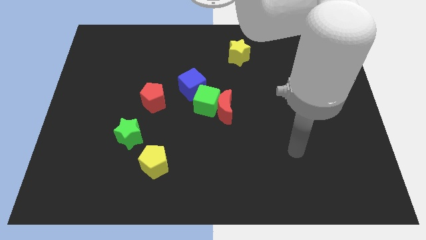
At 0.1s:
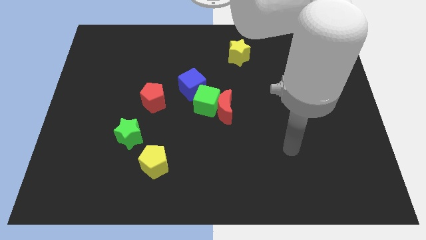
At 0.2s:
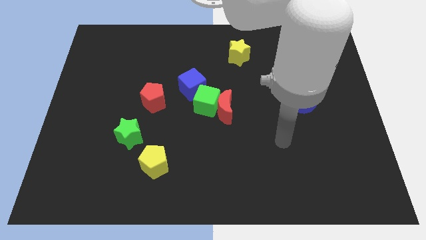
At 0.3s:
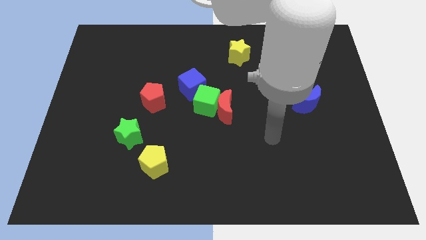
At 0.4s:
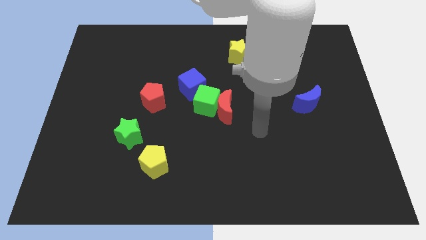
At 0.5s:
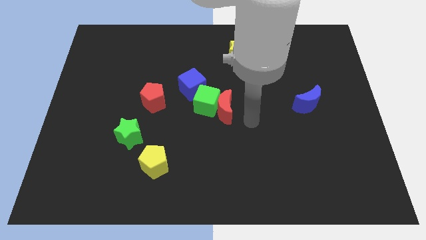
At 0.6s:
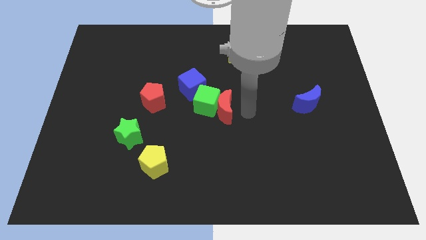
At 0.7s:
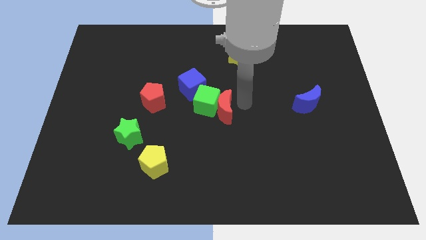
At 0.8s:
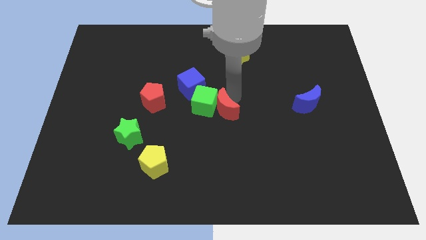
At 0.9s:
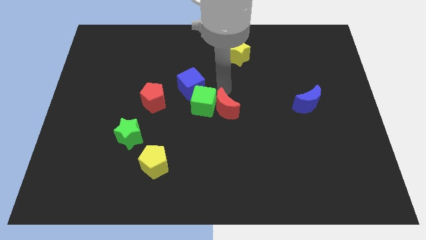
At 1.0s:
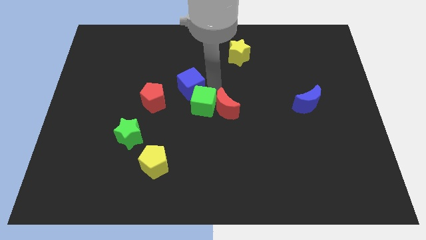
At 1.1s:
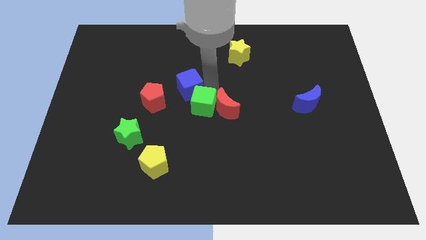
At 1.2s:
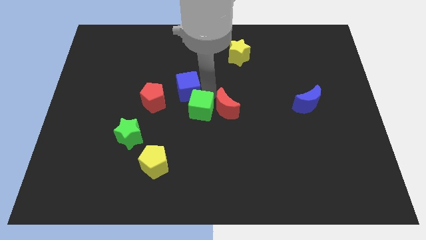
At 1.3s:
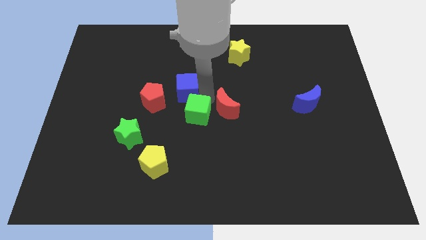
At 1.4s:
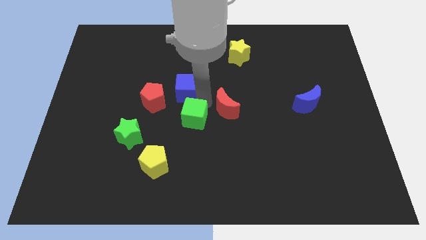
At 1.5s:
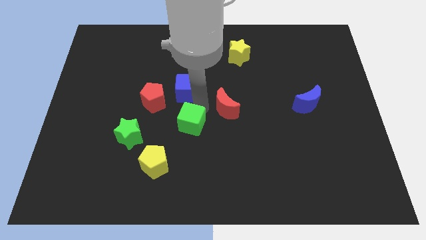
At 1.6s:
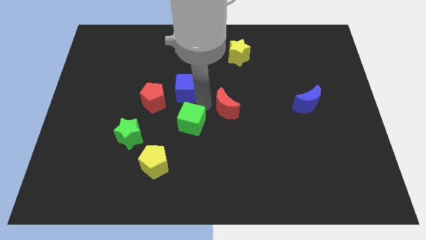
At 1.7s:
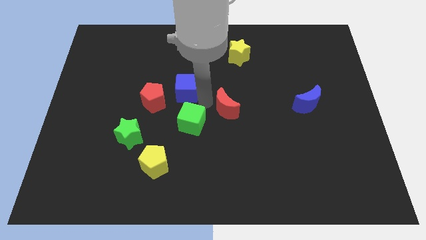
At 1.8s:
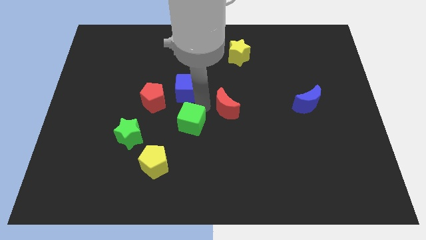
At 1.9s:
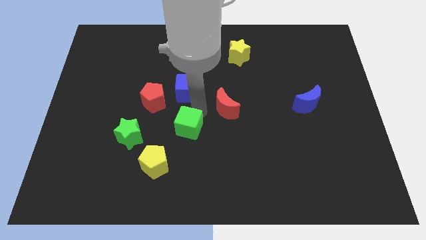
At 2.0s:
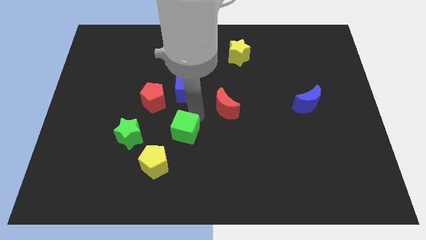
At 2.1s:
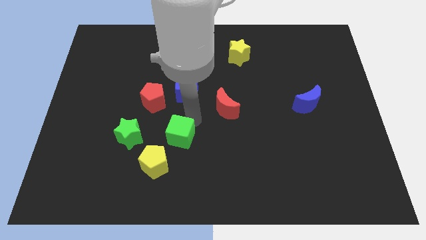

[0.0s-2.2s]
separate the green cube from the red moon and blue cube

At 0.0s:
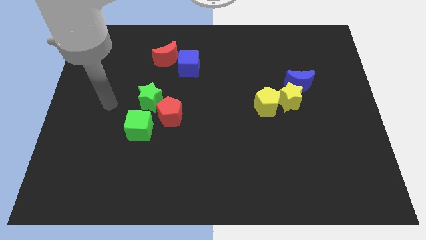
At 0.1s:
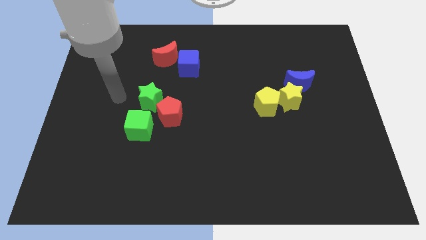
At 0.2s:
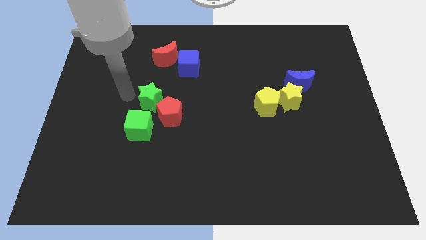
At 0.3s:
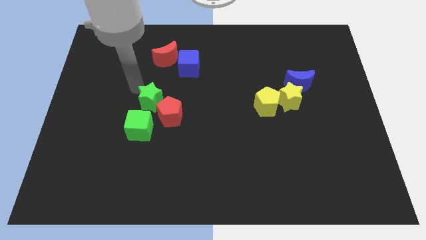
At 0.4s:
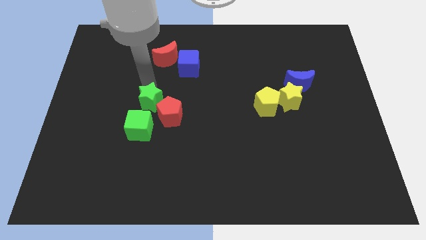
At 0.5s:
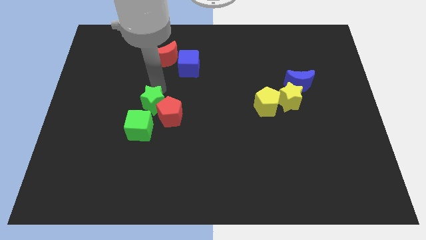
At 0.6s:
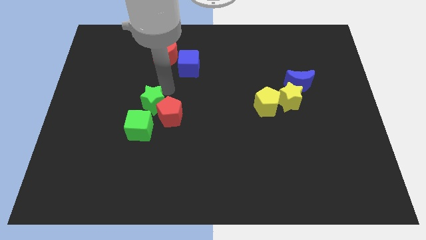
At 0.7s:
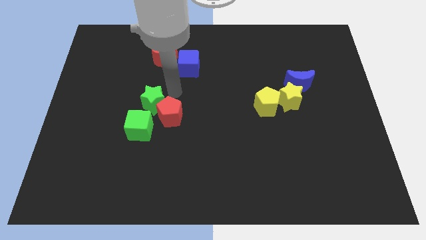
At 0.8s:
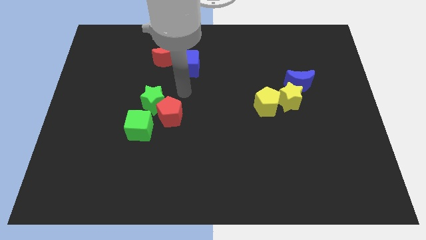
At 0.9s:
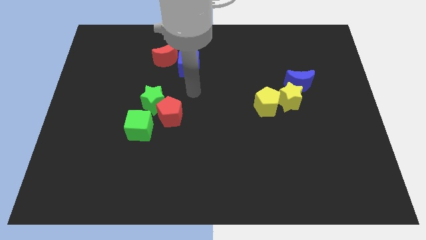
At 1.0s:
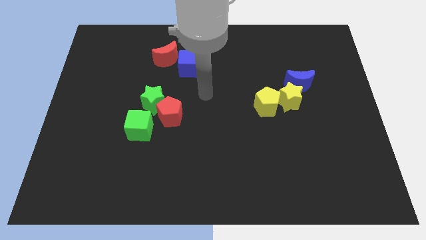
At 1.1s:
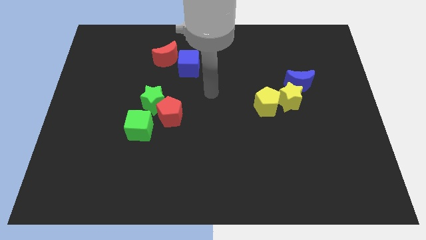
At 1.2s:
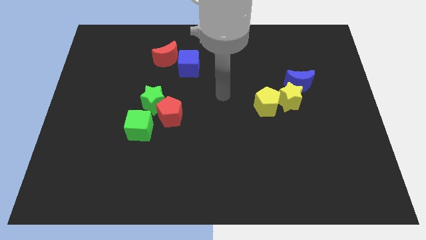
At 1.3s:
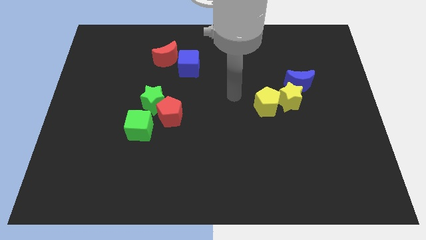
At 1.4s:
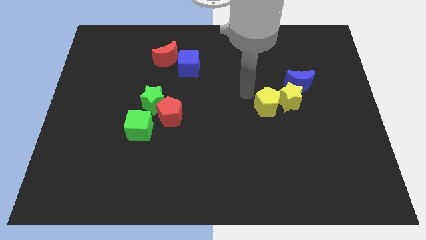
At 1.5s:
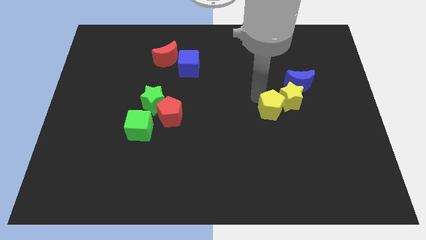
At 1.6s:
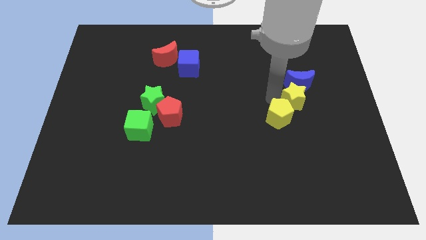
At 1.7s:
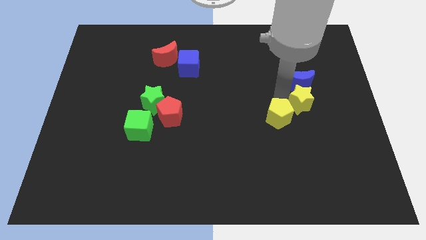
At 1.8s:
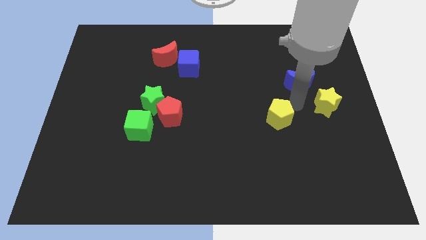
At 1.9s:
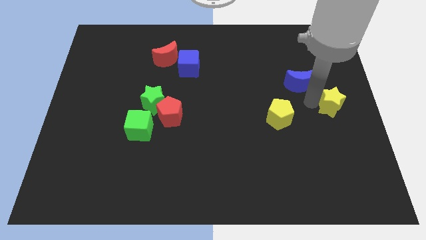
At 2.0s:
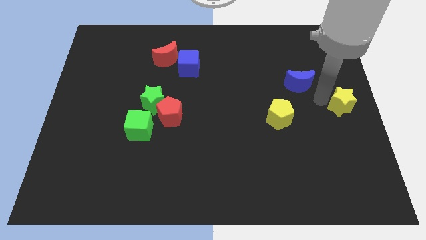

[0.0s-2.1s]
separate the blue moon from the yellow star

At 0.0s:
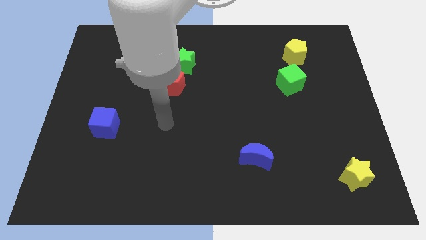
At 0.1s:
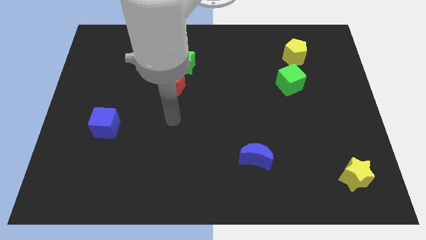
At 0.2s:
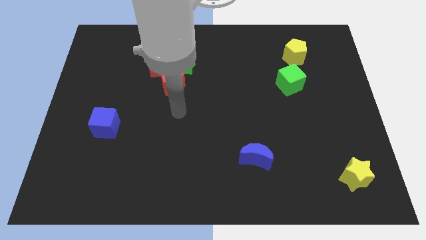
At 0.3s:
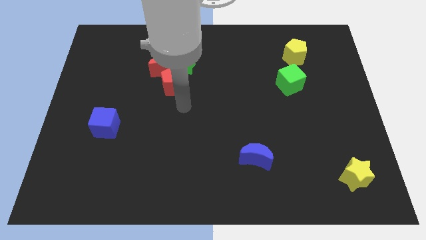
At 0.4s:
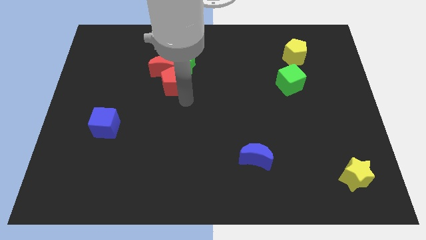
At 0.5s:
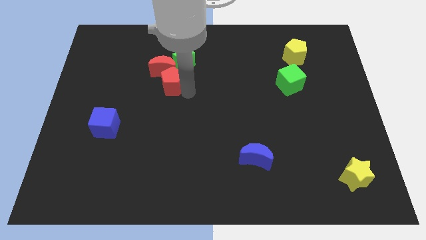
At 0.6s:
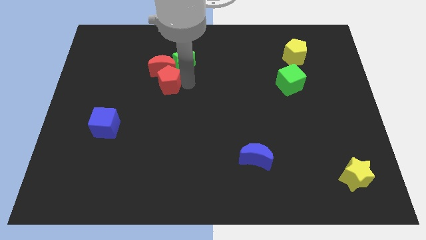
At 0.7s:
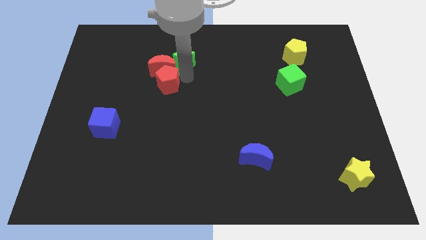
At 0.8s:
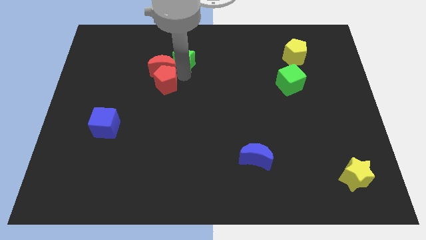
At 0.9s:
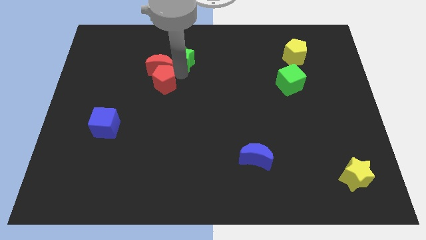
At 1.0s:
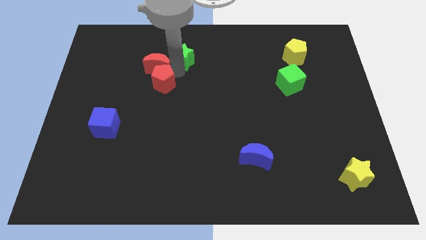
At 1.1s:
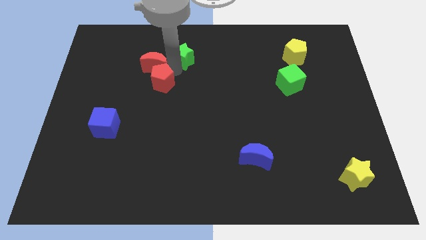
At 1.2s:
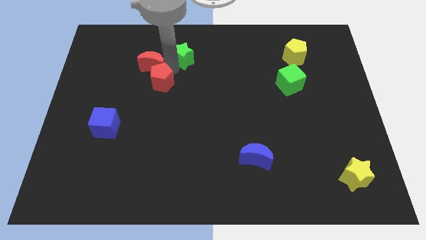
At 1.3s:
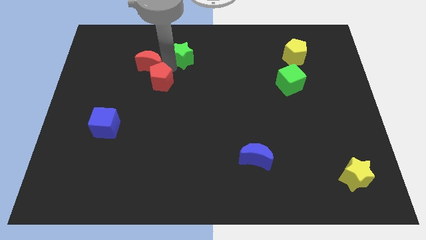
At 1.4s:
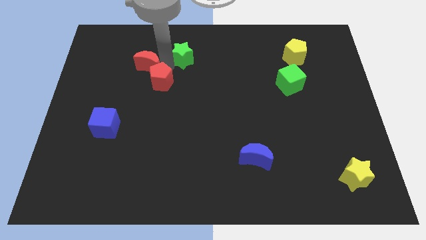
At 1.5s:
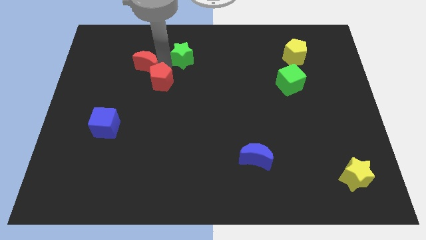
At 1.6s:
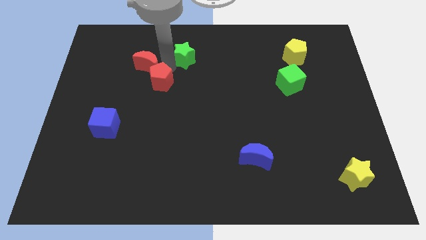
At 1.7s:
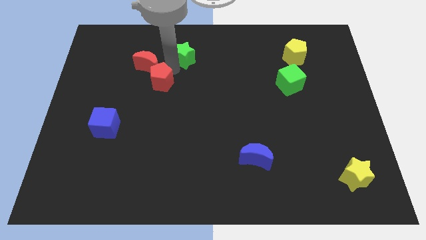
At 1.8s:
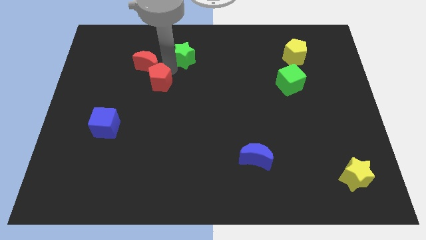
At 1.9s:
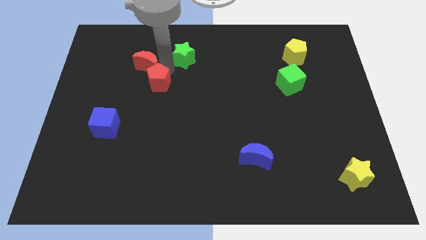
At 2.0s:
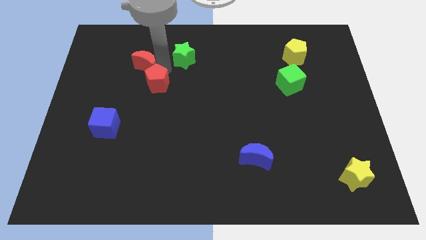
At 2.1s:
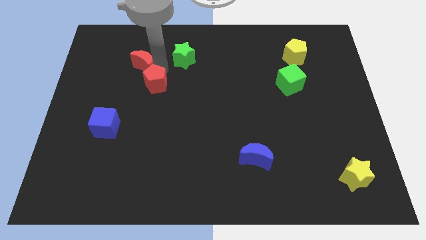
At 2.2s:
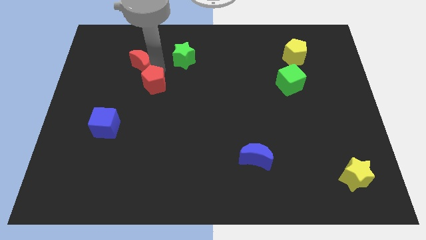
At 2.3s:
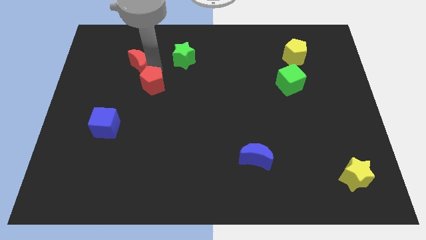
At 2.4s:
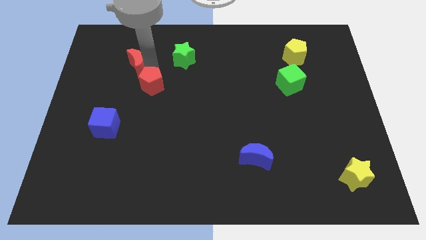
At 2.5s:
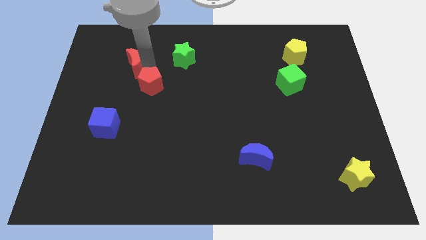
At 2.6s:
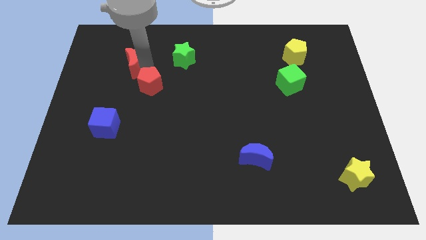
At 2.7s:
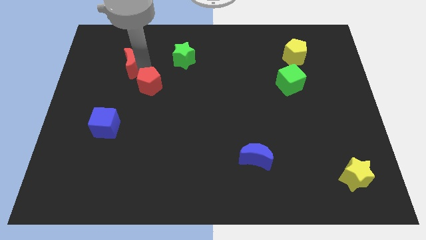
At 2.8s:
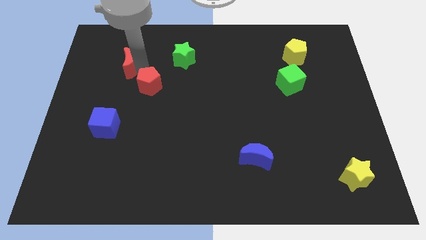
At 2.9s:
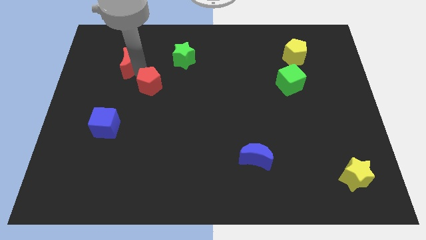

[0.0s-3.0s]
separate the red moon from the green star and red pentagon

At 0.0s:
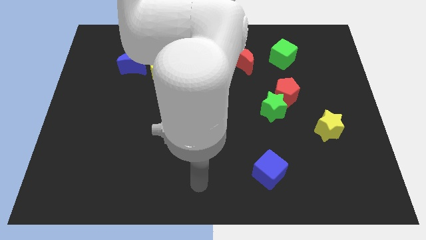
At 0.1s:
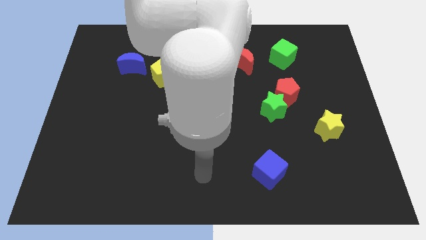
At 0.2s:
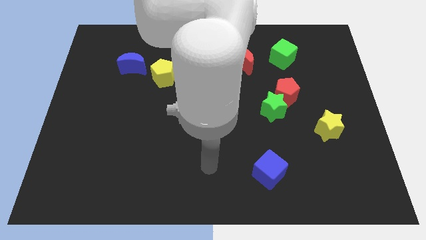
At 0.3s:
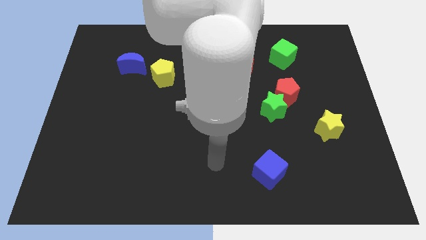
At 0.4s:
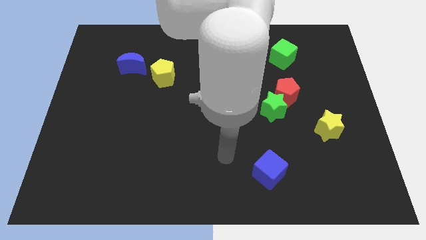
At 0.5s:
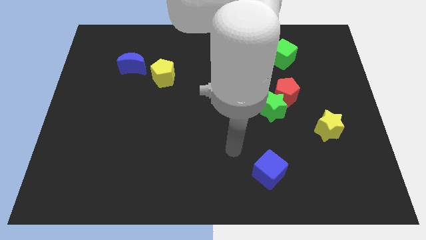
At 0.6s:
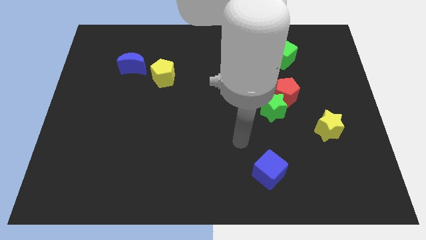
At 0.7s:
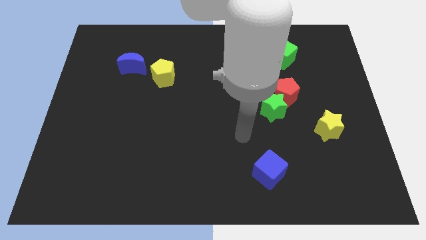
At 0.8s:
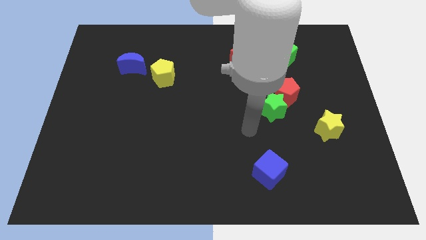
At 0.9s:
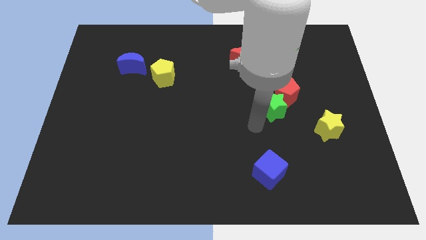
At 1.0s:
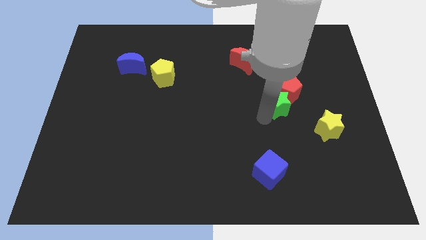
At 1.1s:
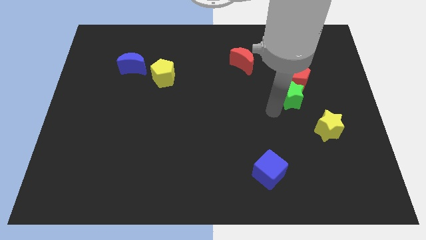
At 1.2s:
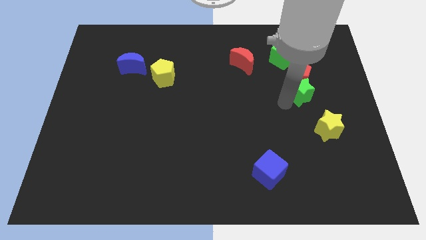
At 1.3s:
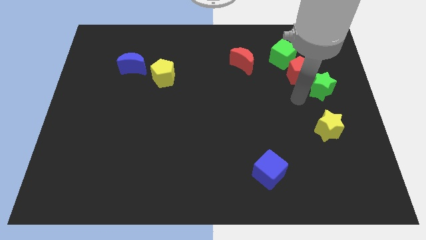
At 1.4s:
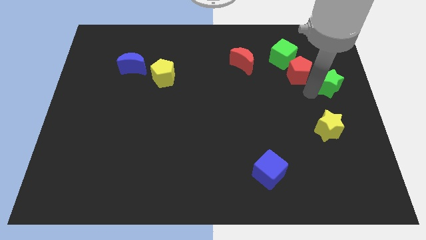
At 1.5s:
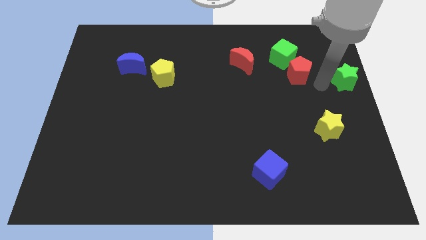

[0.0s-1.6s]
pull the red pentagon apart from the green star

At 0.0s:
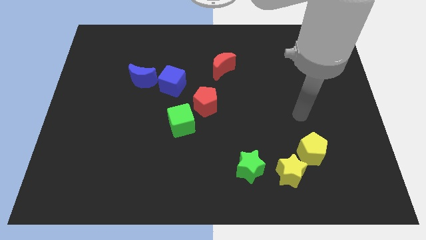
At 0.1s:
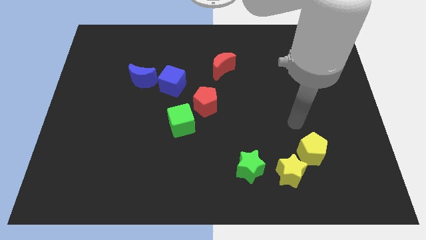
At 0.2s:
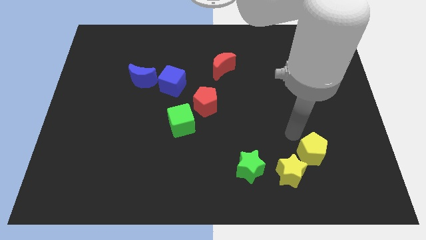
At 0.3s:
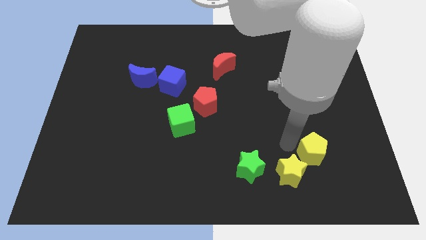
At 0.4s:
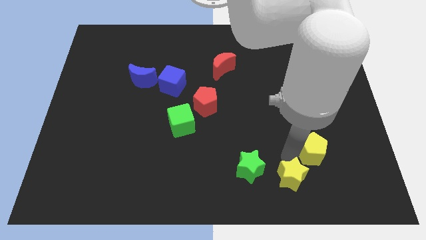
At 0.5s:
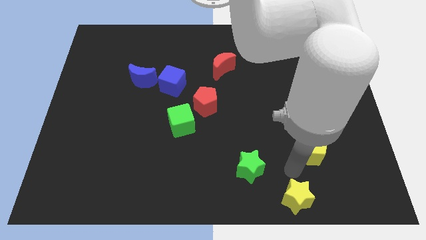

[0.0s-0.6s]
separate the yellow pentagon from the yellow star
